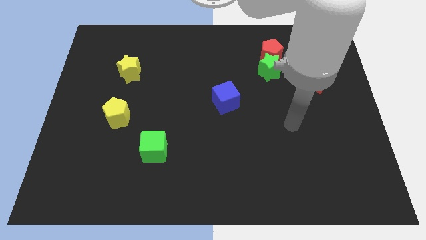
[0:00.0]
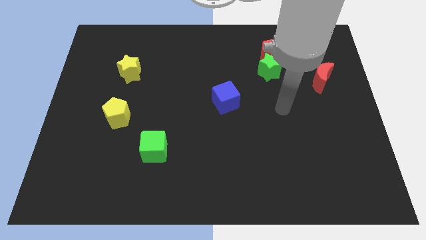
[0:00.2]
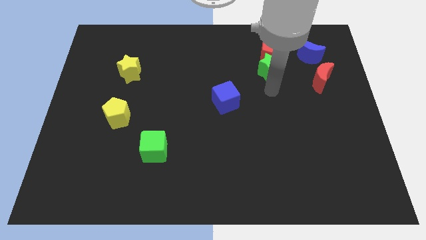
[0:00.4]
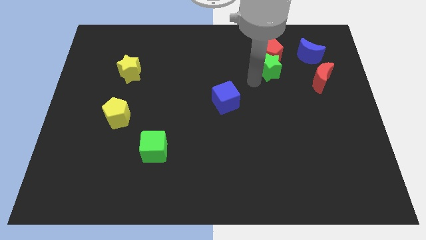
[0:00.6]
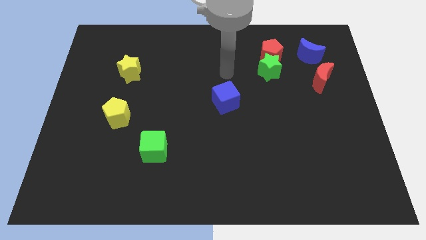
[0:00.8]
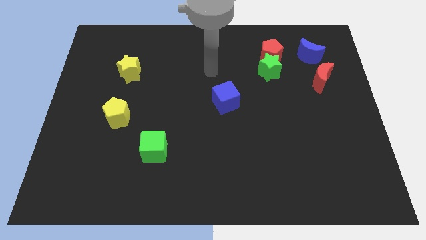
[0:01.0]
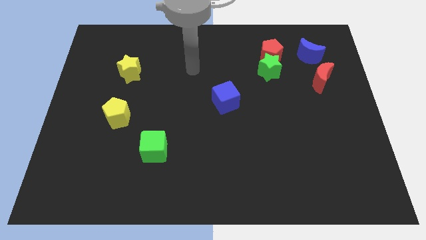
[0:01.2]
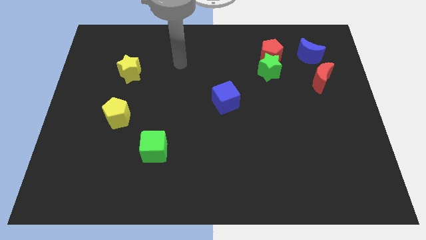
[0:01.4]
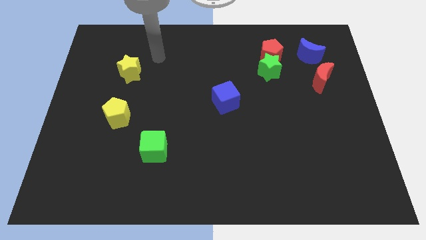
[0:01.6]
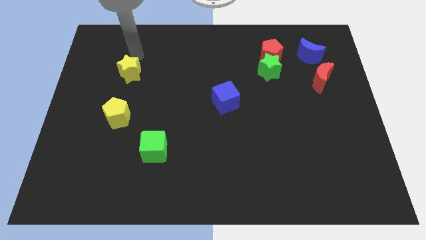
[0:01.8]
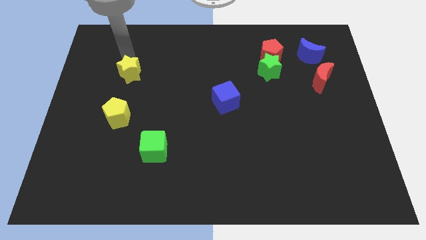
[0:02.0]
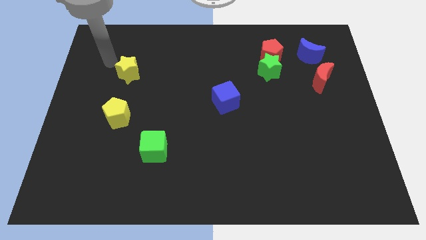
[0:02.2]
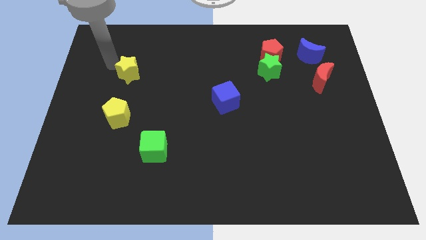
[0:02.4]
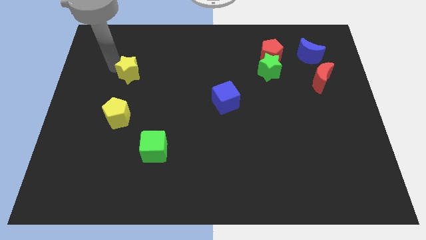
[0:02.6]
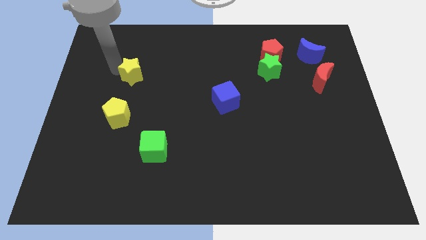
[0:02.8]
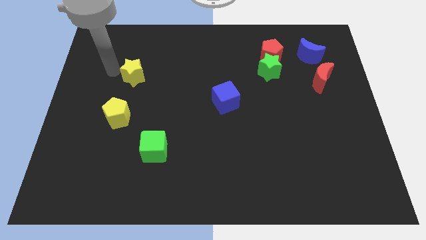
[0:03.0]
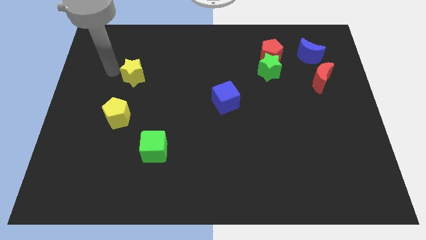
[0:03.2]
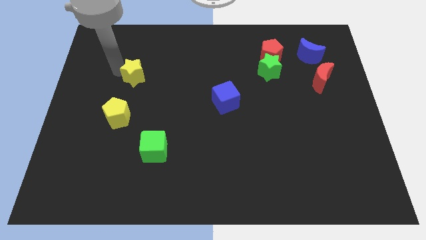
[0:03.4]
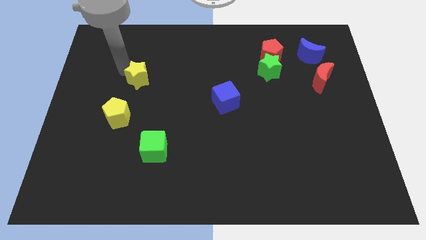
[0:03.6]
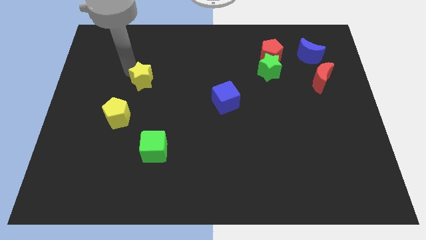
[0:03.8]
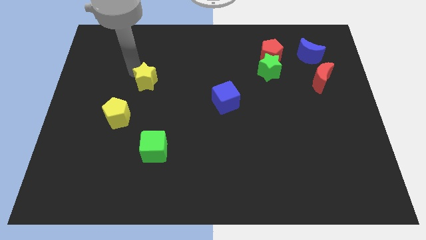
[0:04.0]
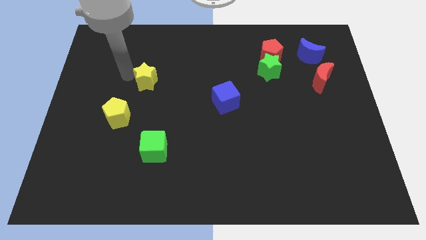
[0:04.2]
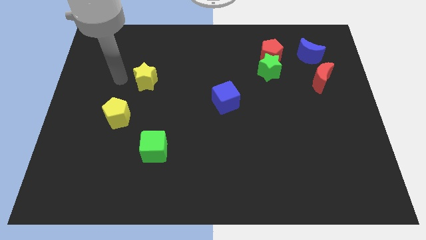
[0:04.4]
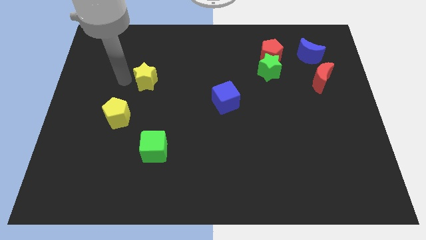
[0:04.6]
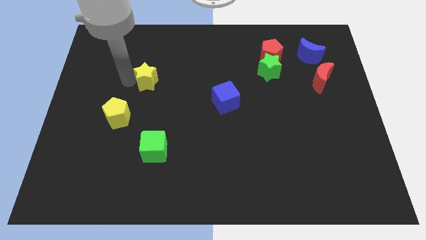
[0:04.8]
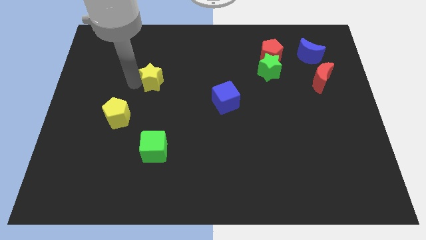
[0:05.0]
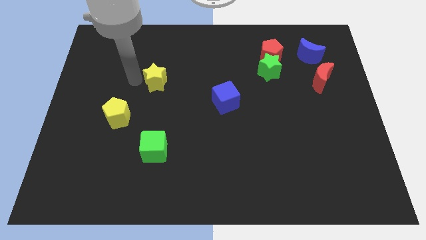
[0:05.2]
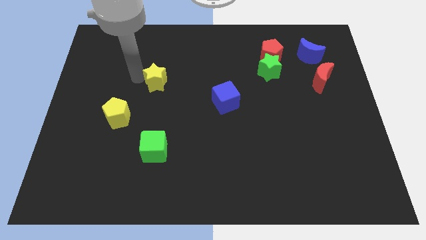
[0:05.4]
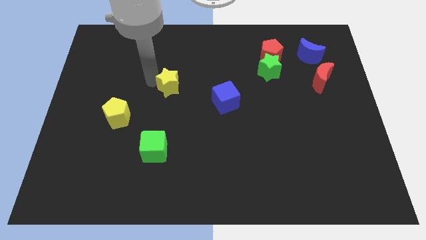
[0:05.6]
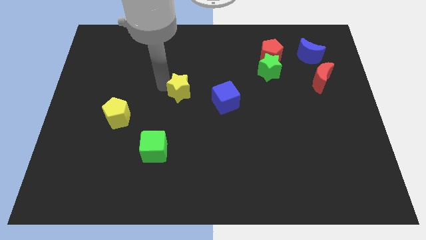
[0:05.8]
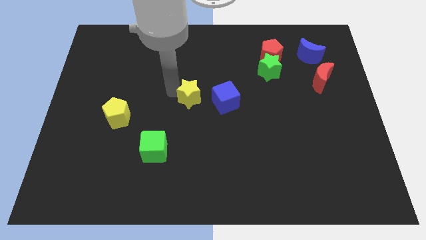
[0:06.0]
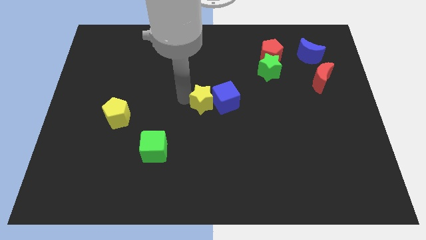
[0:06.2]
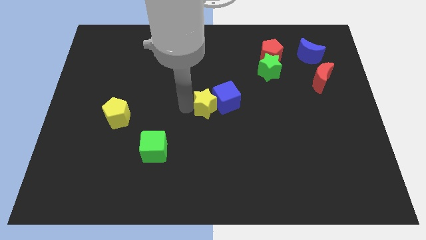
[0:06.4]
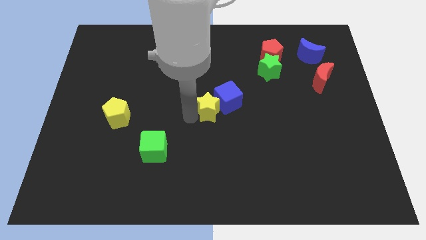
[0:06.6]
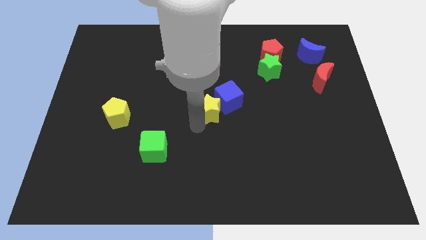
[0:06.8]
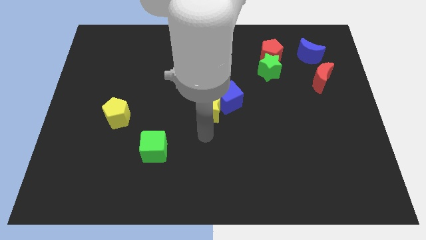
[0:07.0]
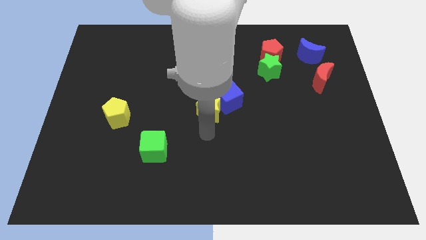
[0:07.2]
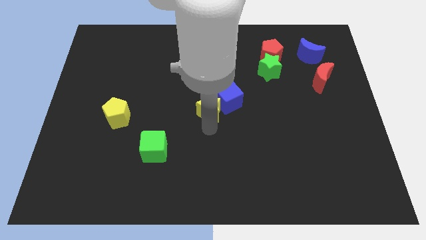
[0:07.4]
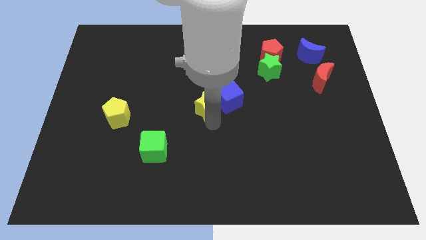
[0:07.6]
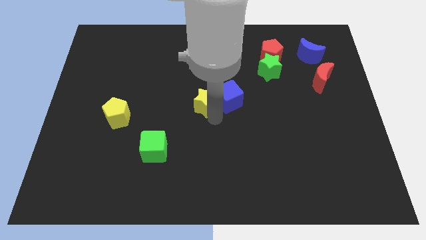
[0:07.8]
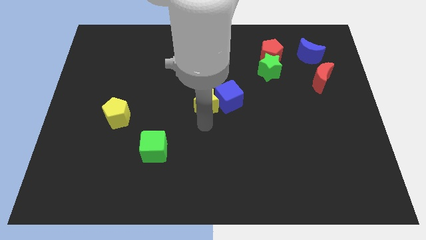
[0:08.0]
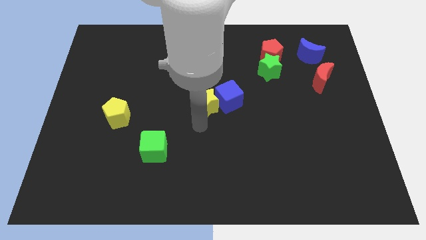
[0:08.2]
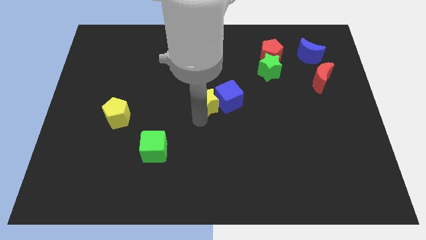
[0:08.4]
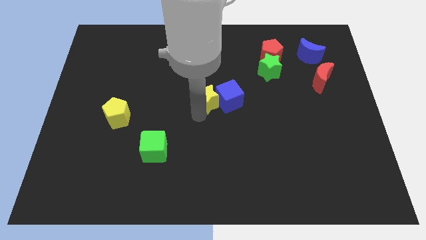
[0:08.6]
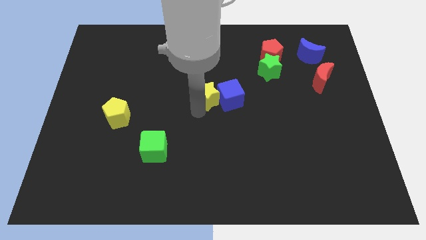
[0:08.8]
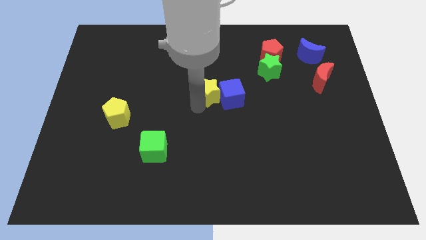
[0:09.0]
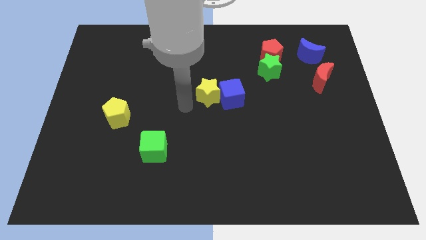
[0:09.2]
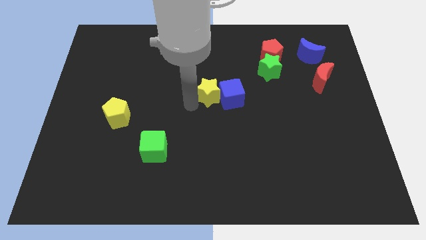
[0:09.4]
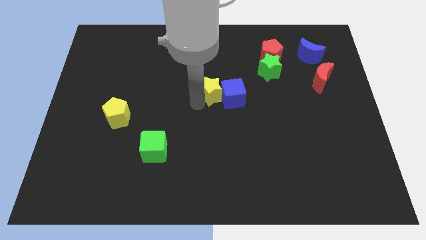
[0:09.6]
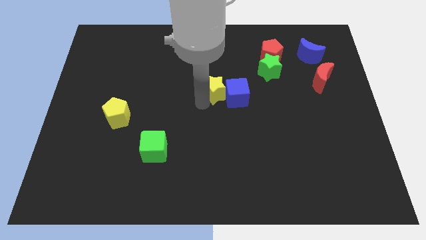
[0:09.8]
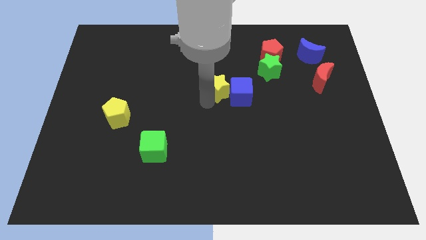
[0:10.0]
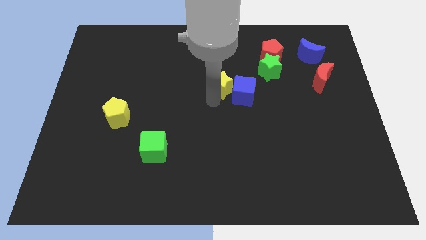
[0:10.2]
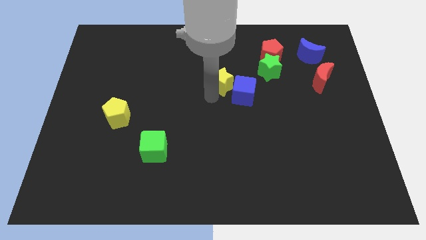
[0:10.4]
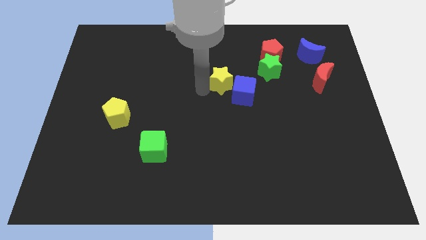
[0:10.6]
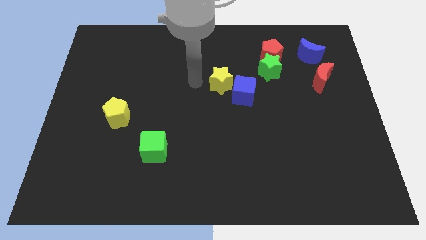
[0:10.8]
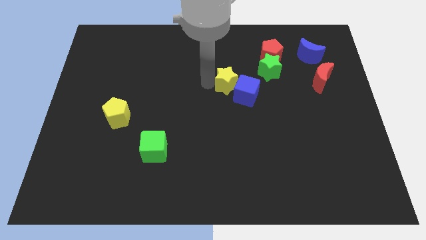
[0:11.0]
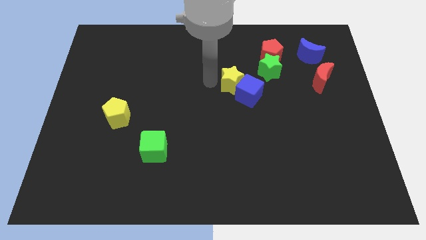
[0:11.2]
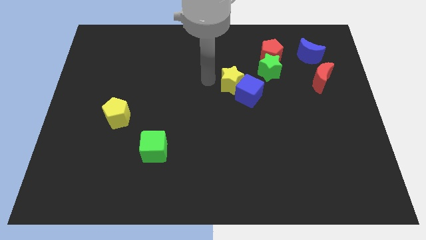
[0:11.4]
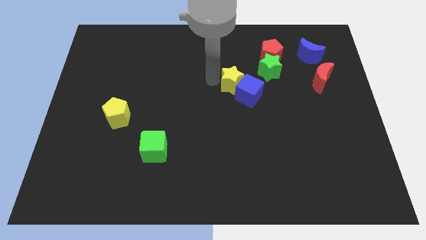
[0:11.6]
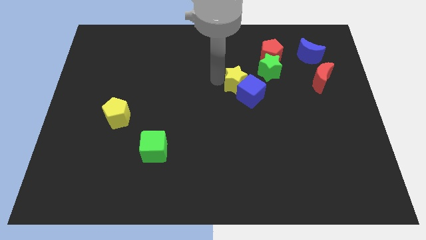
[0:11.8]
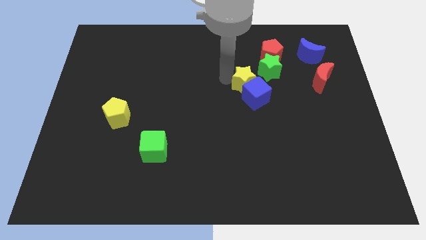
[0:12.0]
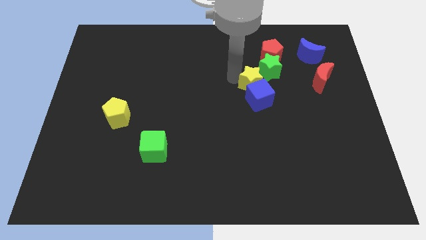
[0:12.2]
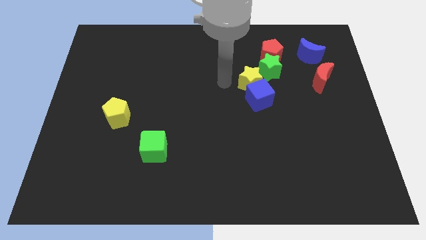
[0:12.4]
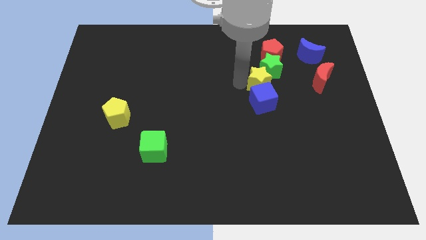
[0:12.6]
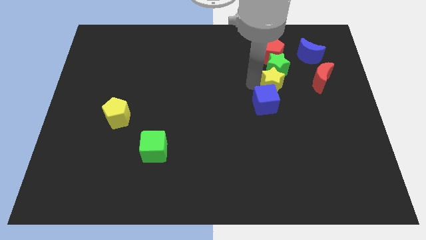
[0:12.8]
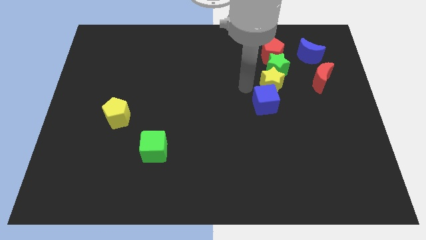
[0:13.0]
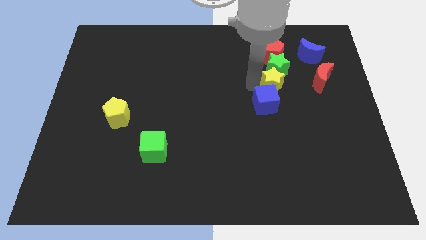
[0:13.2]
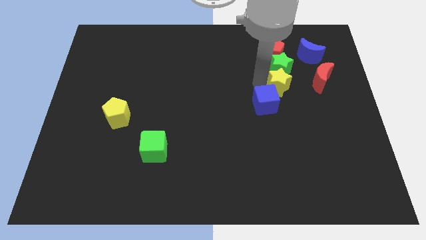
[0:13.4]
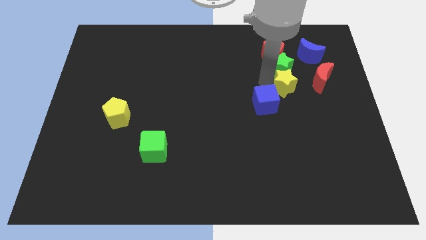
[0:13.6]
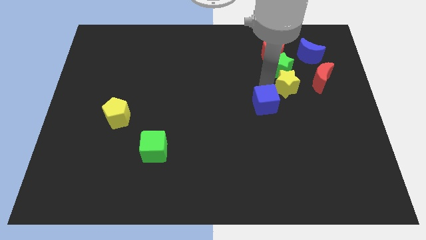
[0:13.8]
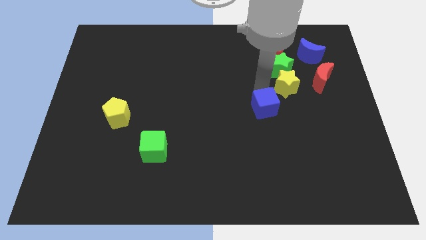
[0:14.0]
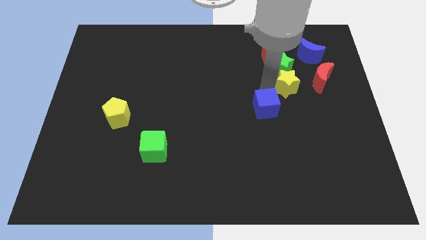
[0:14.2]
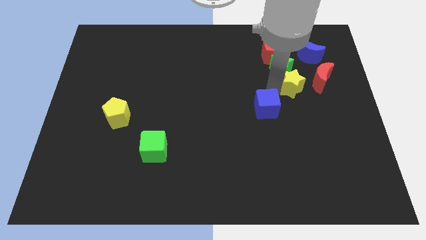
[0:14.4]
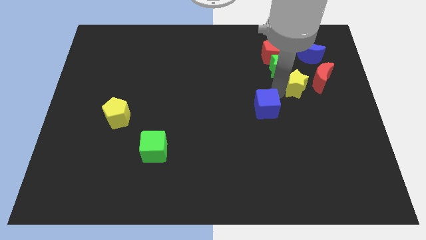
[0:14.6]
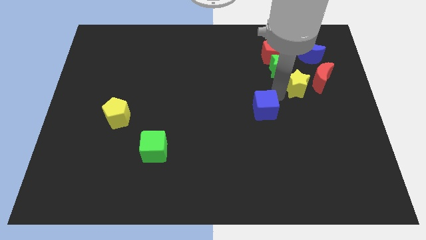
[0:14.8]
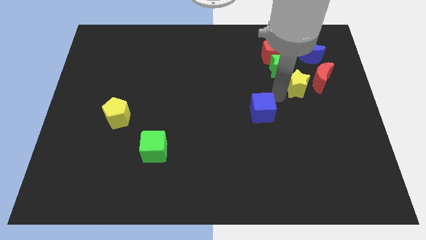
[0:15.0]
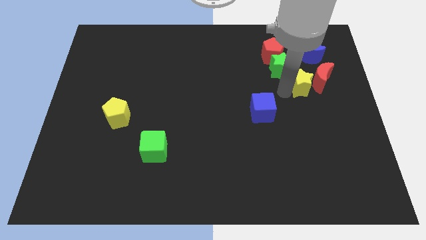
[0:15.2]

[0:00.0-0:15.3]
put the yellow star towards the red moon
